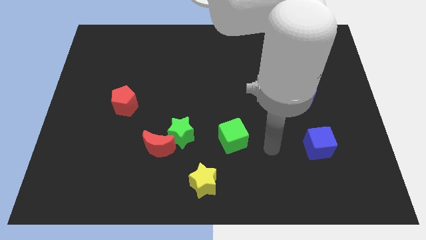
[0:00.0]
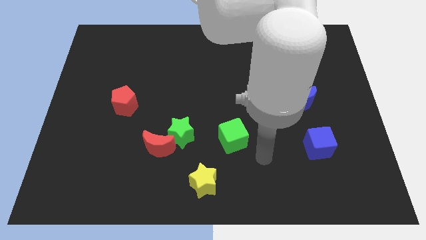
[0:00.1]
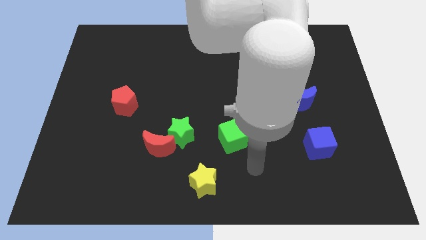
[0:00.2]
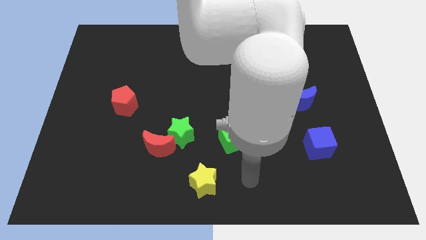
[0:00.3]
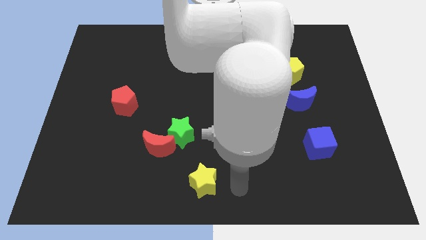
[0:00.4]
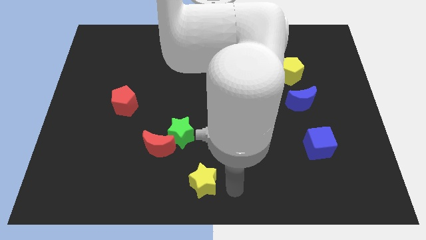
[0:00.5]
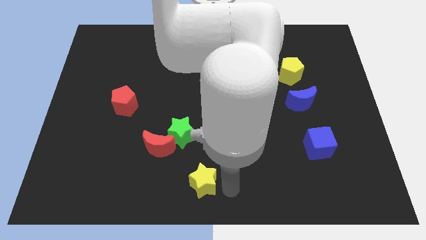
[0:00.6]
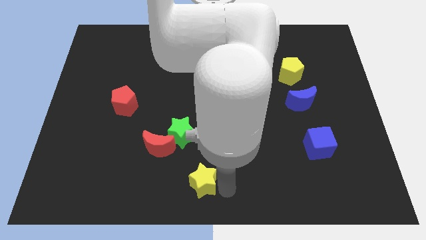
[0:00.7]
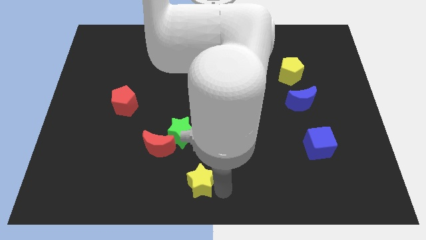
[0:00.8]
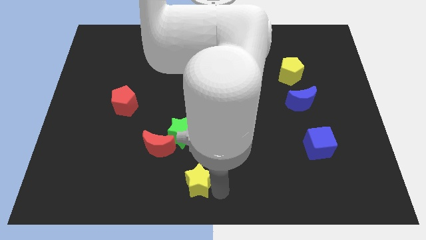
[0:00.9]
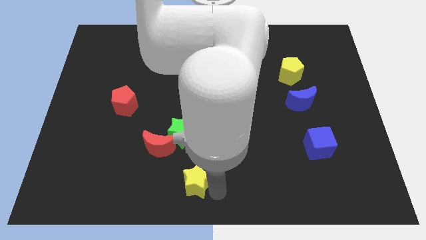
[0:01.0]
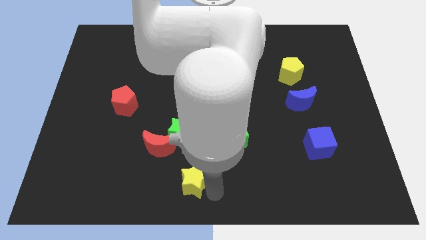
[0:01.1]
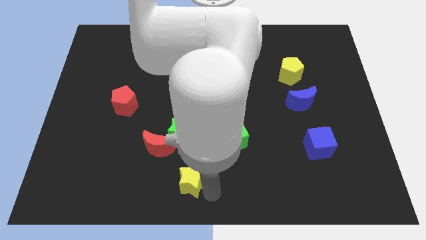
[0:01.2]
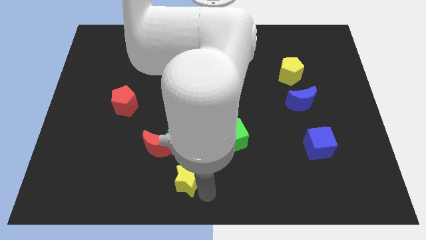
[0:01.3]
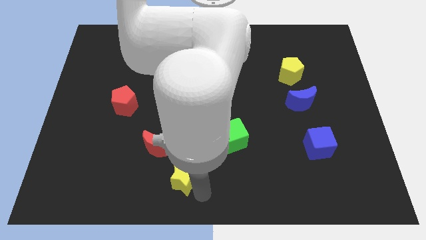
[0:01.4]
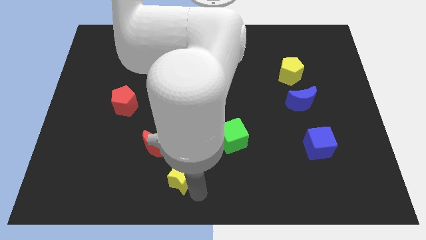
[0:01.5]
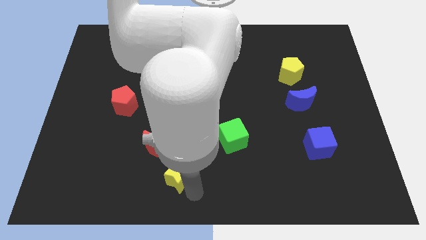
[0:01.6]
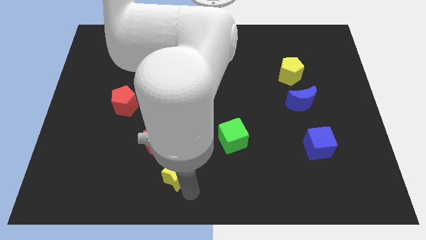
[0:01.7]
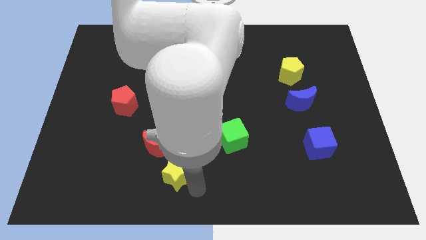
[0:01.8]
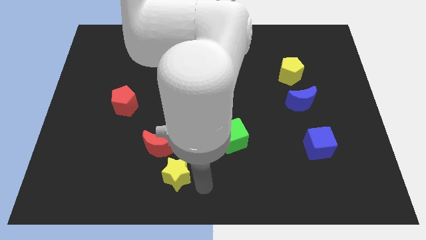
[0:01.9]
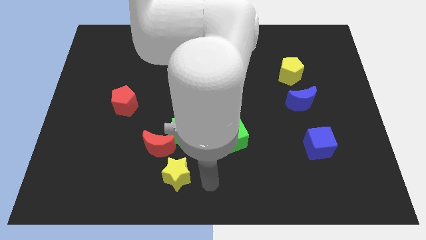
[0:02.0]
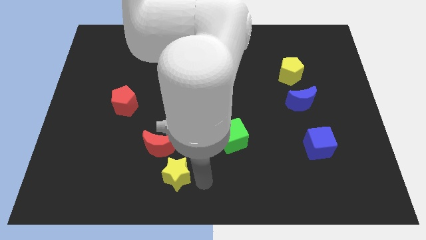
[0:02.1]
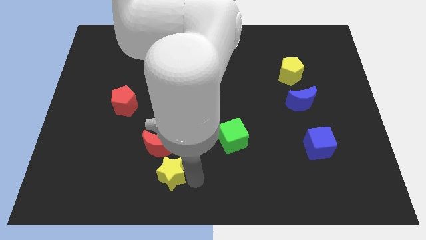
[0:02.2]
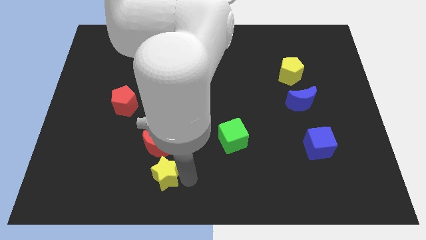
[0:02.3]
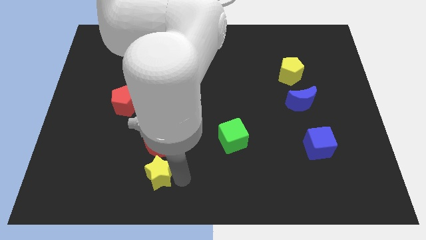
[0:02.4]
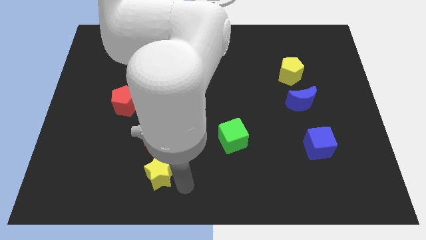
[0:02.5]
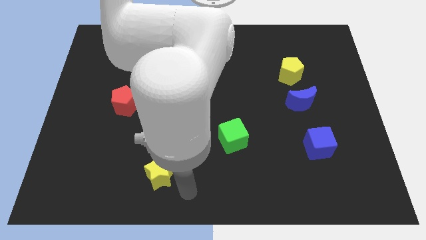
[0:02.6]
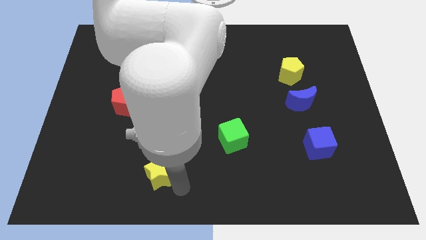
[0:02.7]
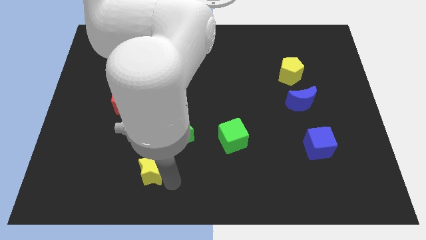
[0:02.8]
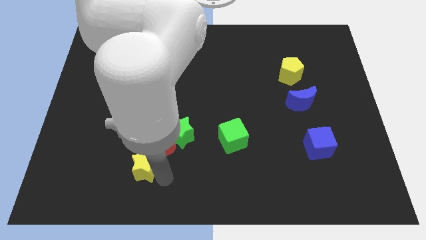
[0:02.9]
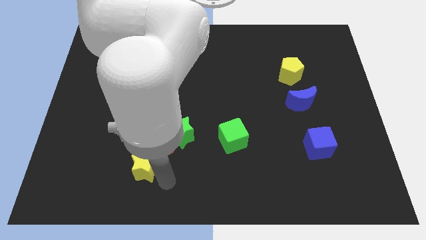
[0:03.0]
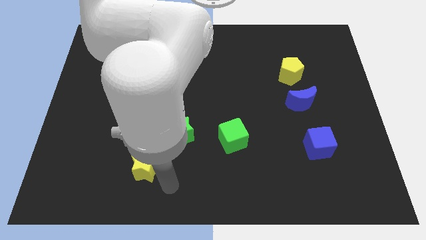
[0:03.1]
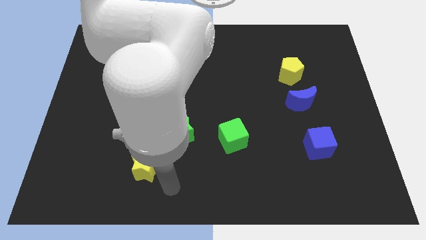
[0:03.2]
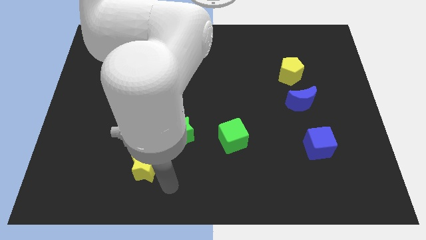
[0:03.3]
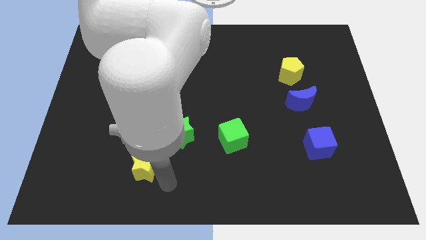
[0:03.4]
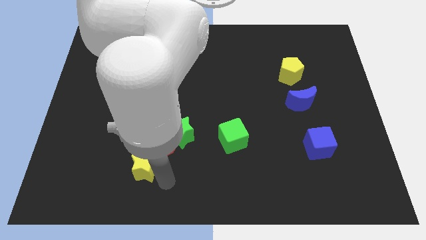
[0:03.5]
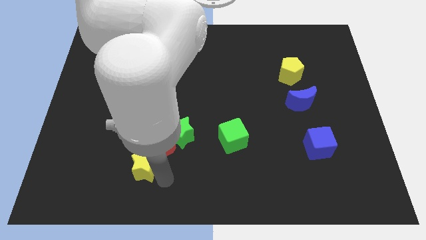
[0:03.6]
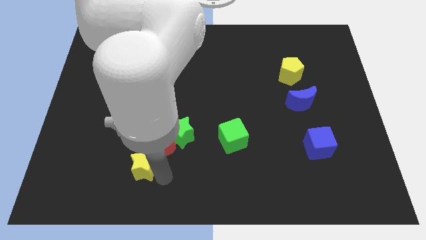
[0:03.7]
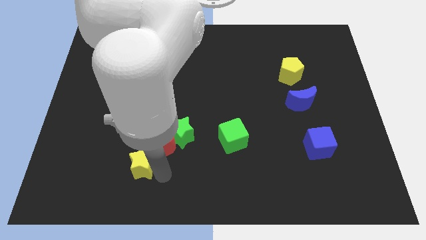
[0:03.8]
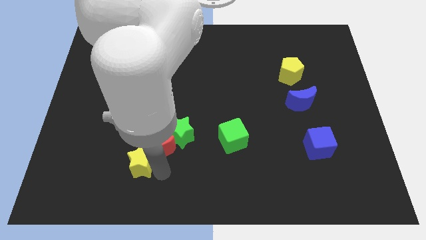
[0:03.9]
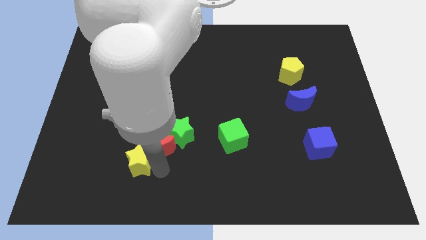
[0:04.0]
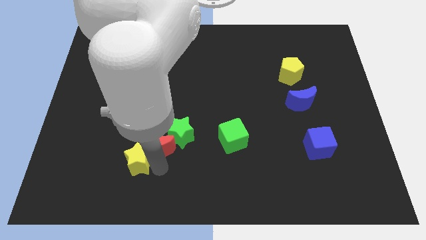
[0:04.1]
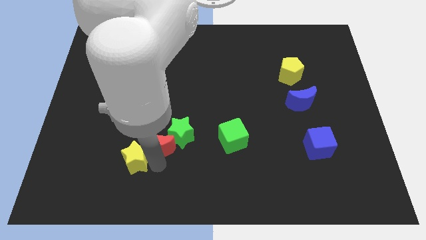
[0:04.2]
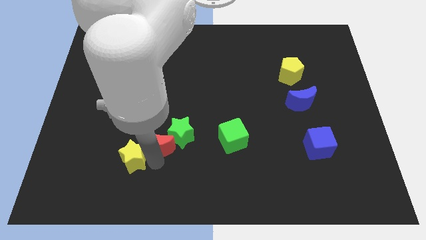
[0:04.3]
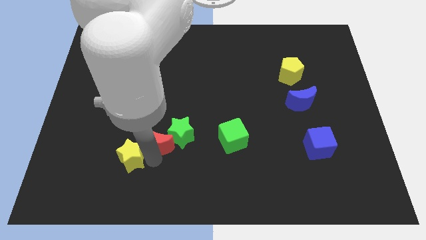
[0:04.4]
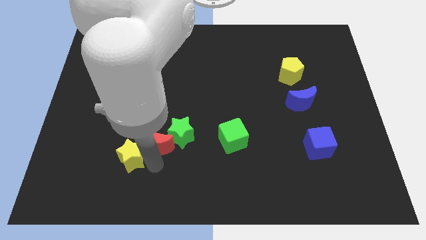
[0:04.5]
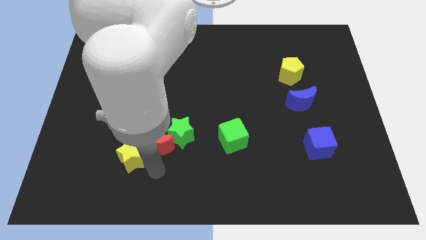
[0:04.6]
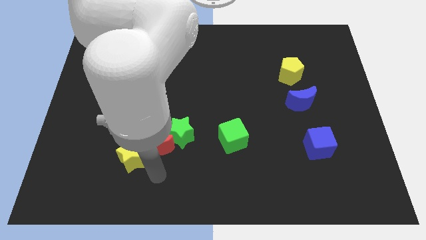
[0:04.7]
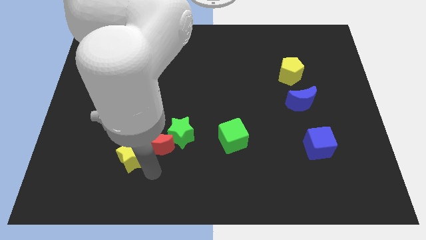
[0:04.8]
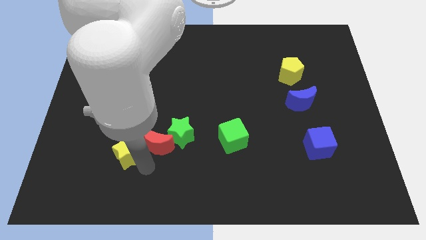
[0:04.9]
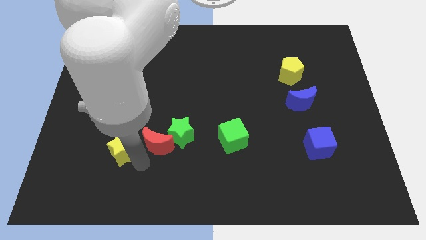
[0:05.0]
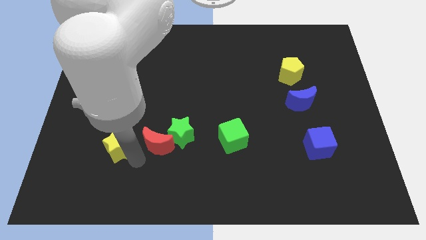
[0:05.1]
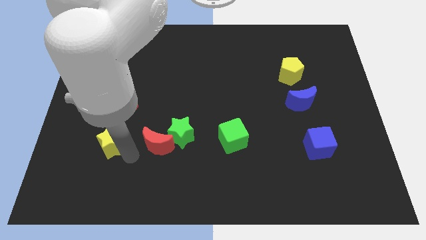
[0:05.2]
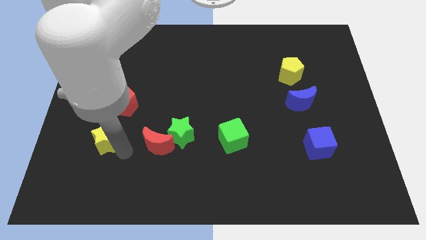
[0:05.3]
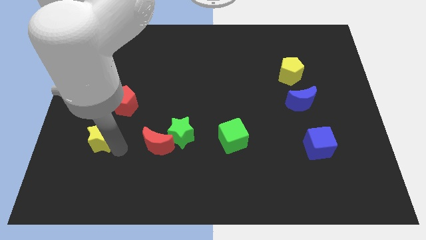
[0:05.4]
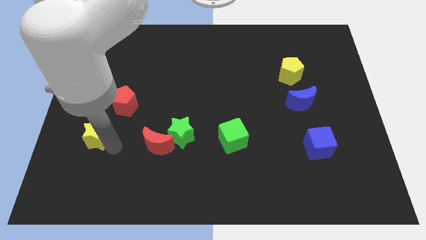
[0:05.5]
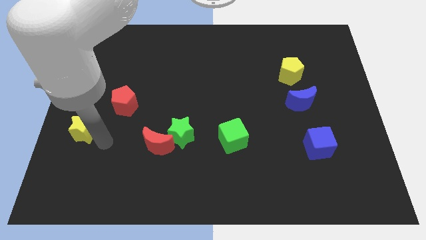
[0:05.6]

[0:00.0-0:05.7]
push the yellow star to the left side

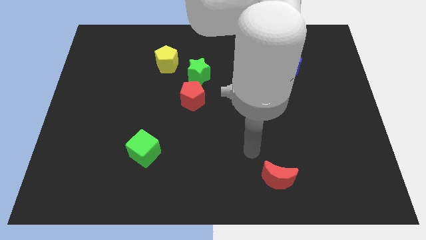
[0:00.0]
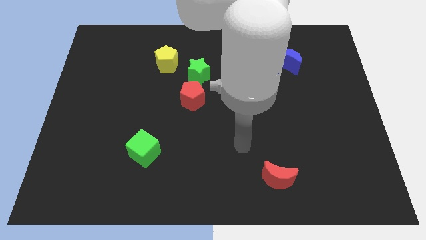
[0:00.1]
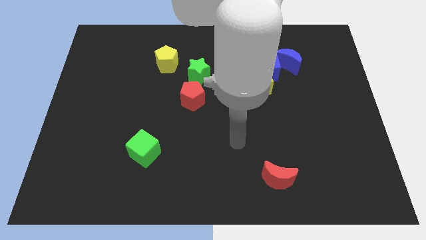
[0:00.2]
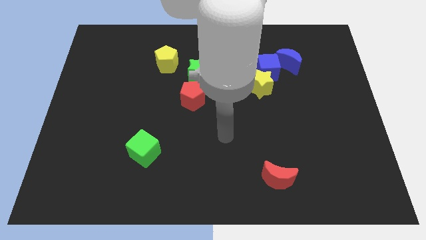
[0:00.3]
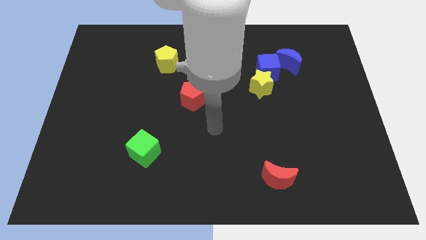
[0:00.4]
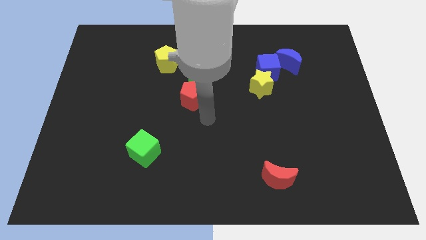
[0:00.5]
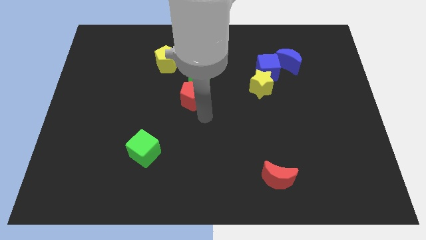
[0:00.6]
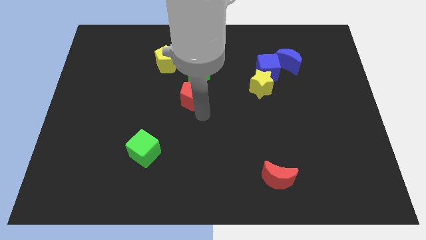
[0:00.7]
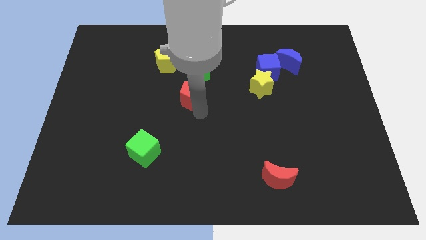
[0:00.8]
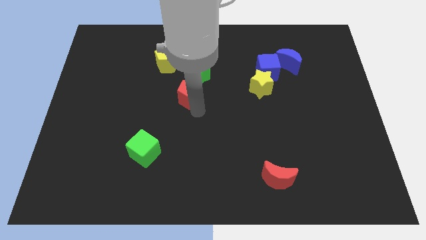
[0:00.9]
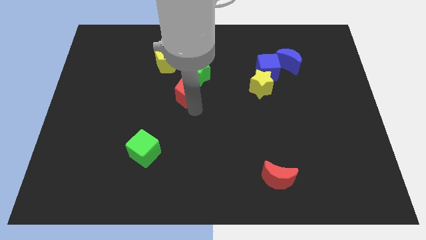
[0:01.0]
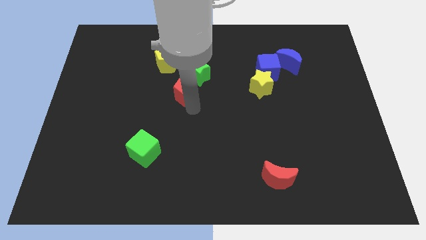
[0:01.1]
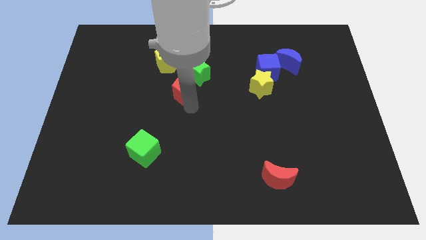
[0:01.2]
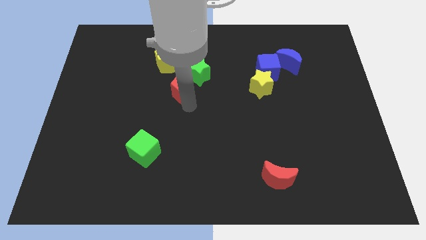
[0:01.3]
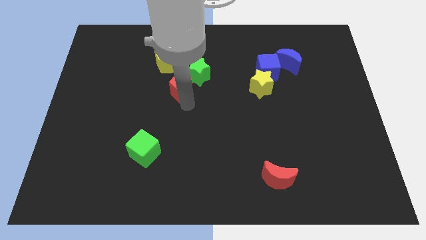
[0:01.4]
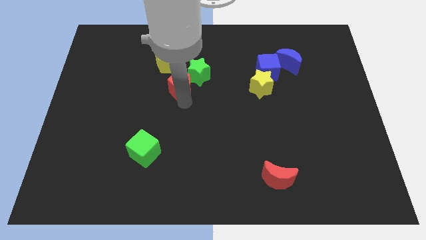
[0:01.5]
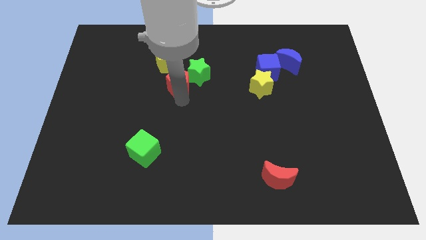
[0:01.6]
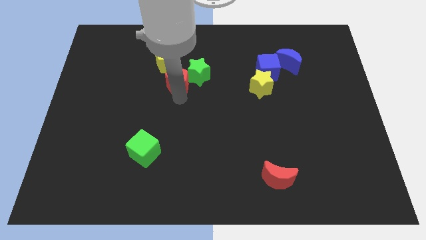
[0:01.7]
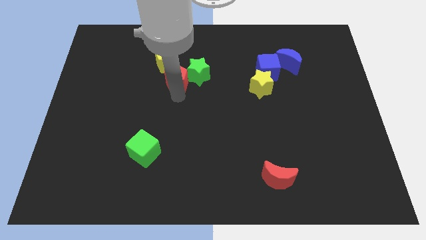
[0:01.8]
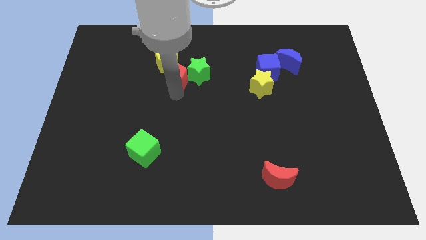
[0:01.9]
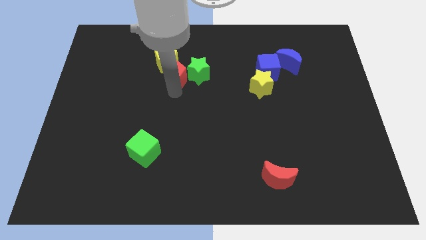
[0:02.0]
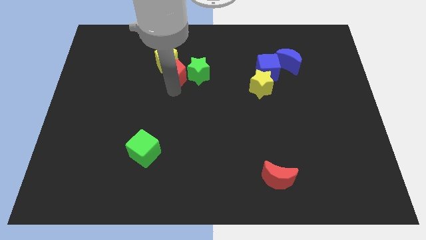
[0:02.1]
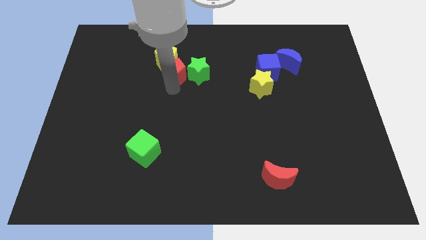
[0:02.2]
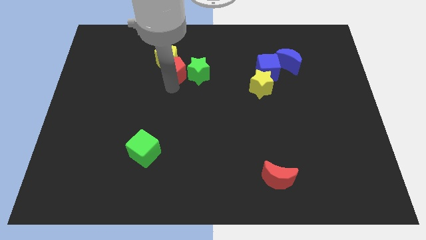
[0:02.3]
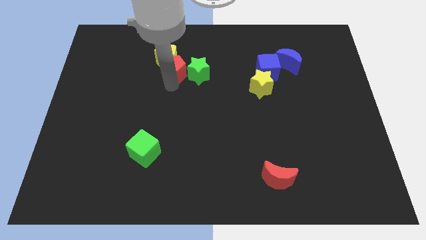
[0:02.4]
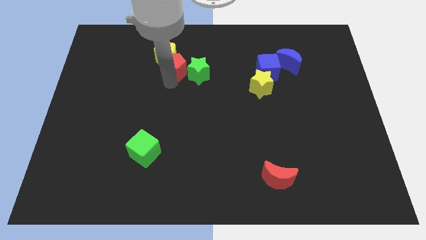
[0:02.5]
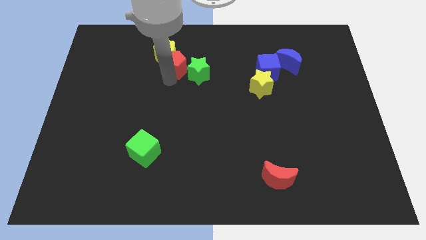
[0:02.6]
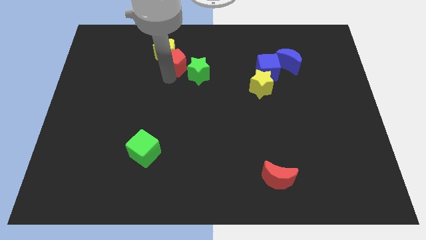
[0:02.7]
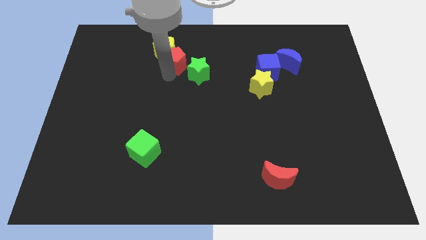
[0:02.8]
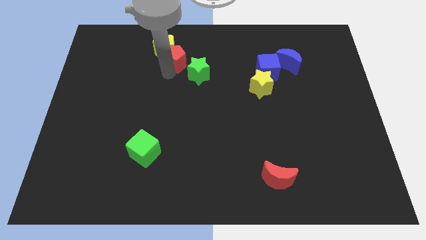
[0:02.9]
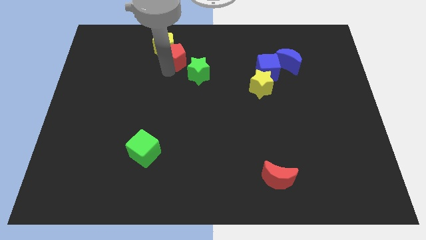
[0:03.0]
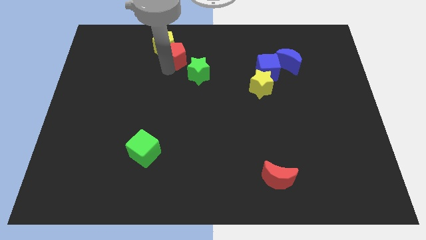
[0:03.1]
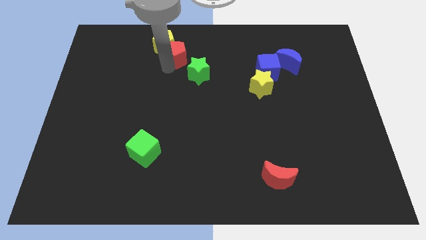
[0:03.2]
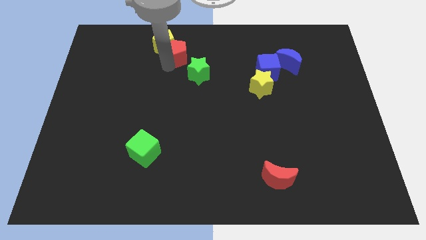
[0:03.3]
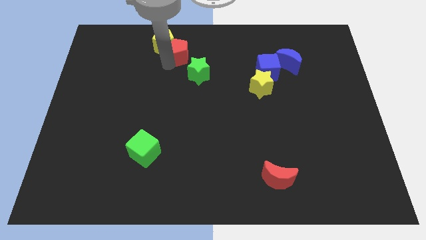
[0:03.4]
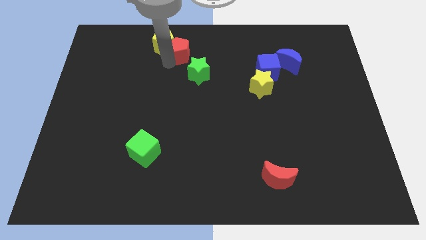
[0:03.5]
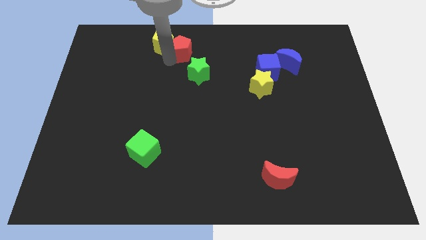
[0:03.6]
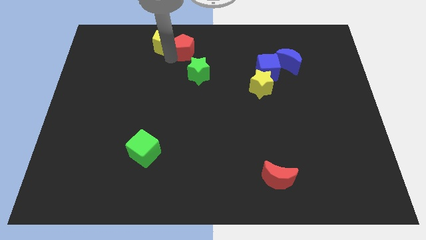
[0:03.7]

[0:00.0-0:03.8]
push the red pentagon to the towards your base
